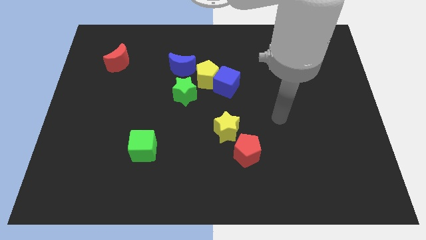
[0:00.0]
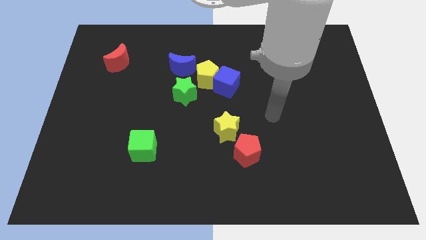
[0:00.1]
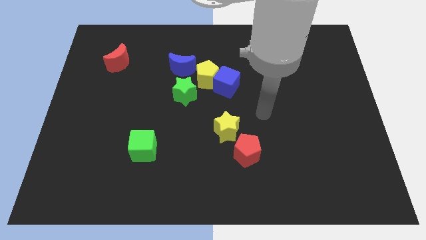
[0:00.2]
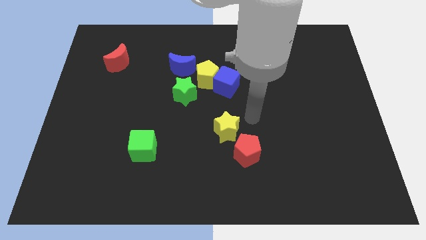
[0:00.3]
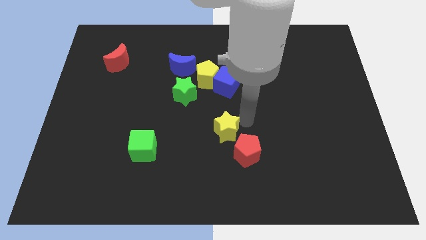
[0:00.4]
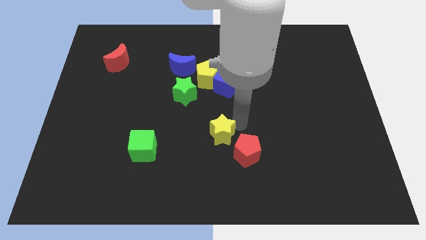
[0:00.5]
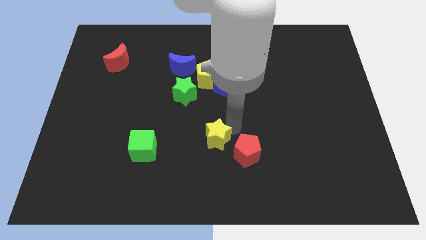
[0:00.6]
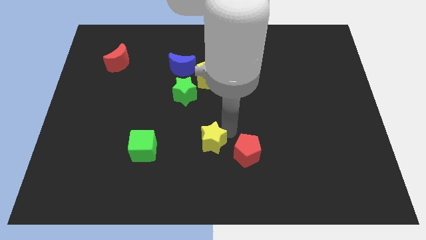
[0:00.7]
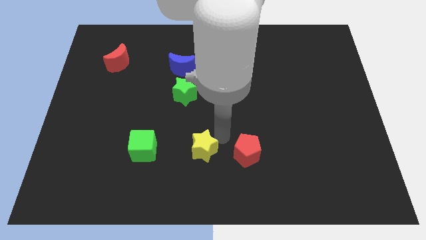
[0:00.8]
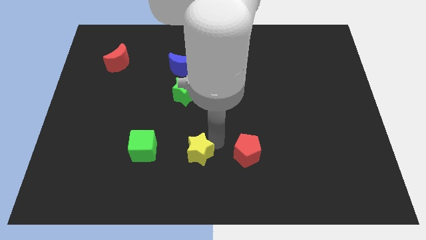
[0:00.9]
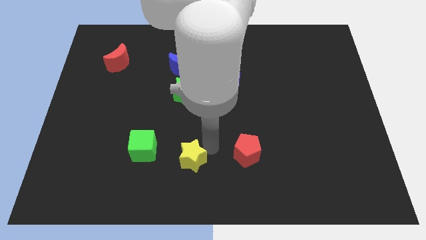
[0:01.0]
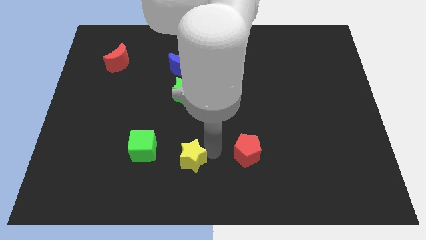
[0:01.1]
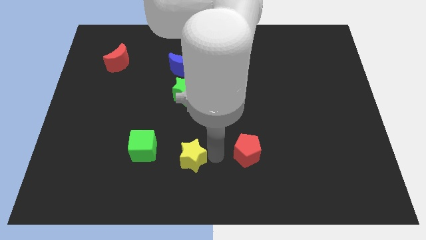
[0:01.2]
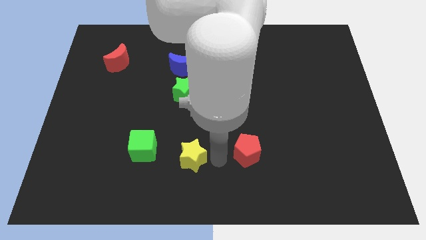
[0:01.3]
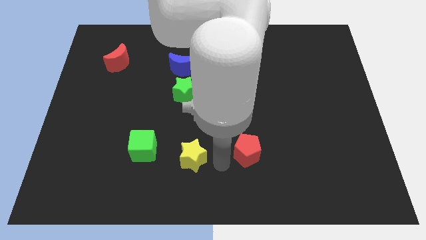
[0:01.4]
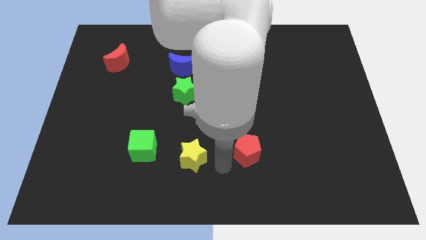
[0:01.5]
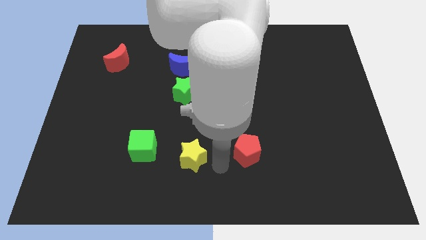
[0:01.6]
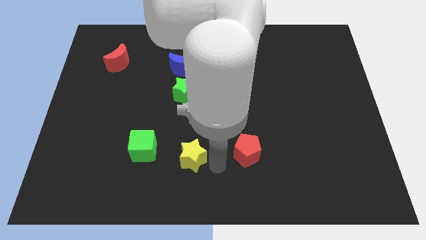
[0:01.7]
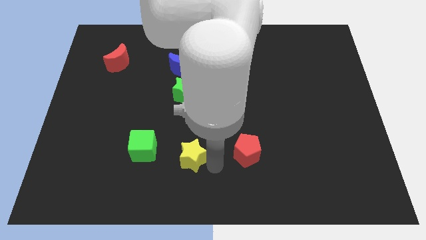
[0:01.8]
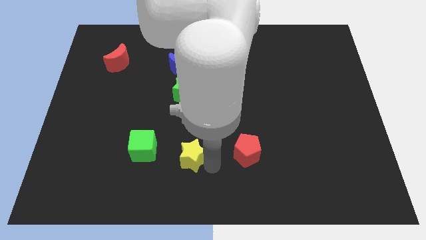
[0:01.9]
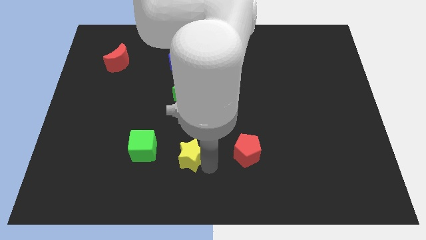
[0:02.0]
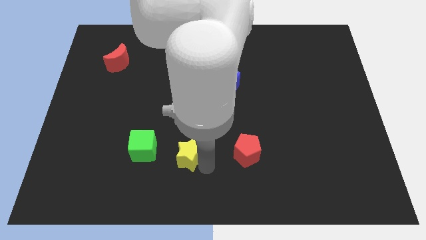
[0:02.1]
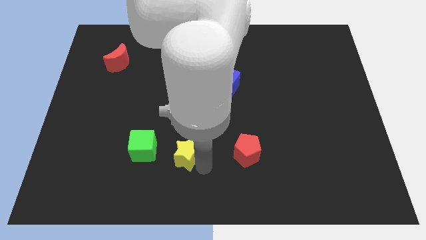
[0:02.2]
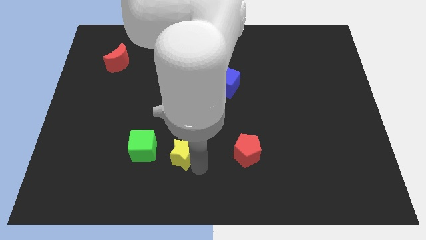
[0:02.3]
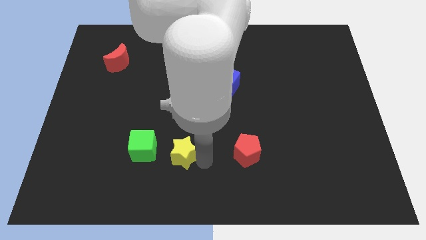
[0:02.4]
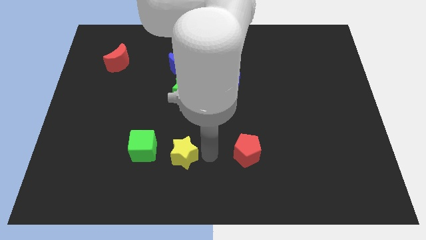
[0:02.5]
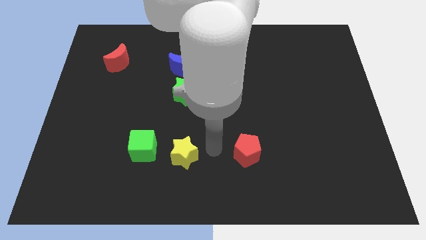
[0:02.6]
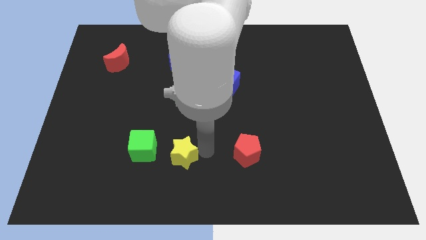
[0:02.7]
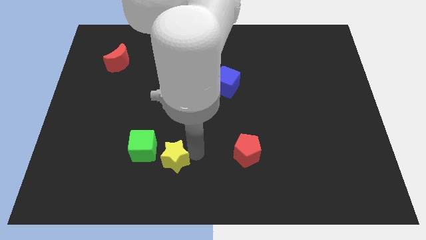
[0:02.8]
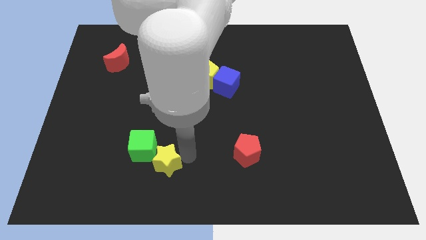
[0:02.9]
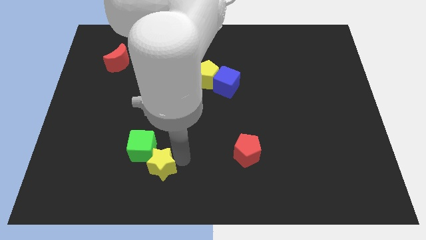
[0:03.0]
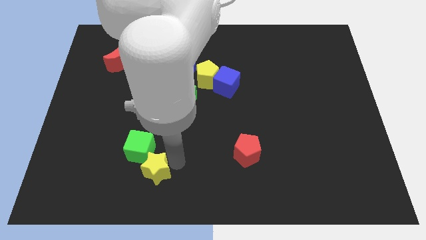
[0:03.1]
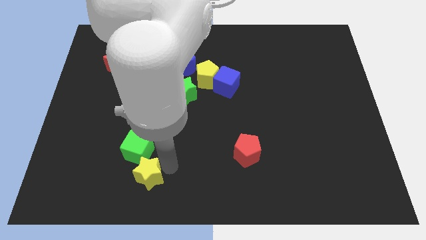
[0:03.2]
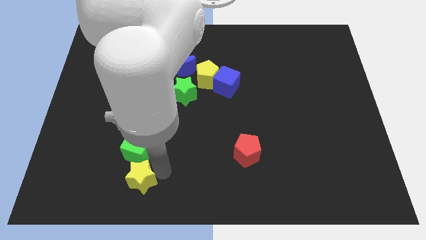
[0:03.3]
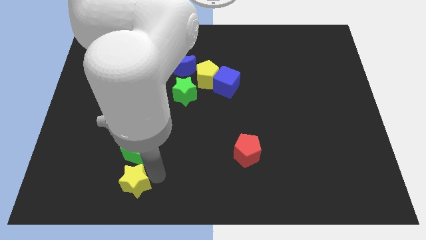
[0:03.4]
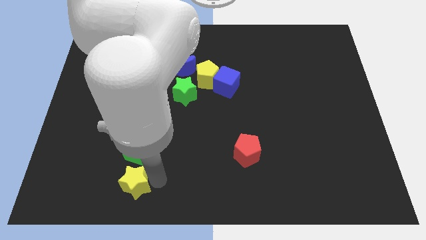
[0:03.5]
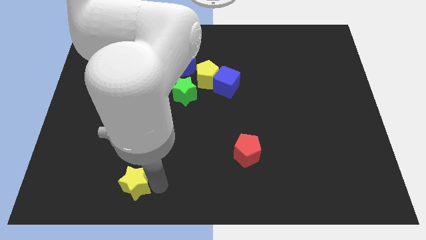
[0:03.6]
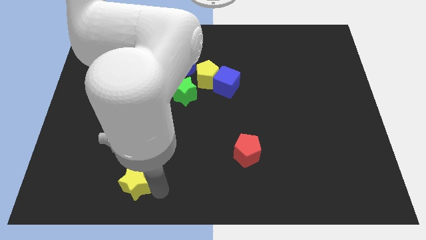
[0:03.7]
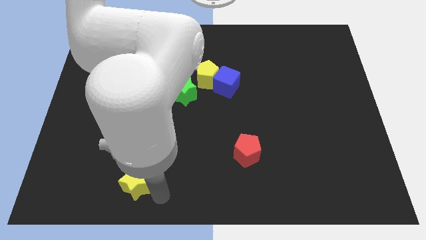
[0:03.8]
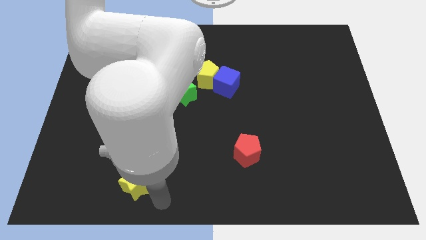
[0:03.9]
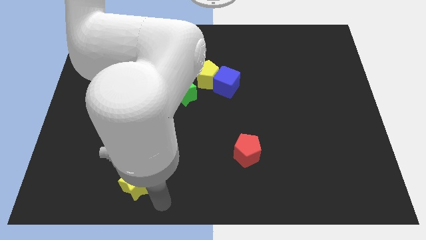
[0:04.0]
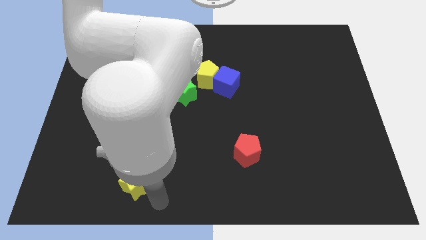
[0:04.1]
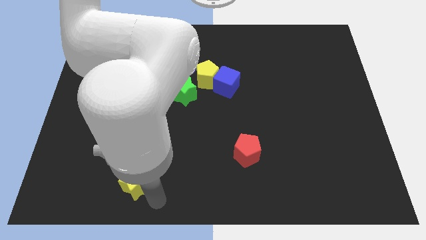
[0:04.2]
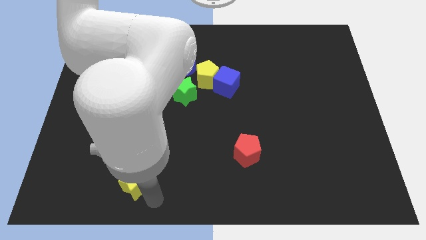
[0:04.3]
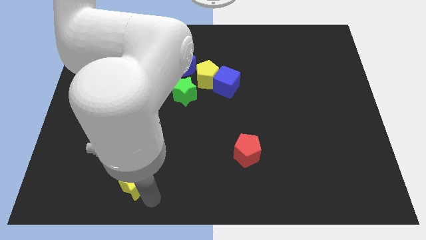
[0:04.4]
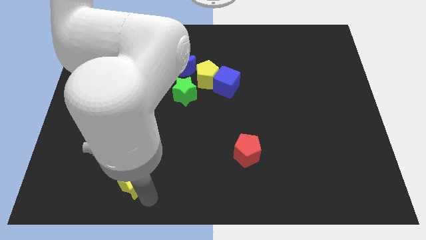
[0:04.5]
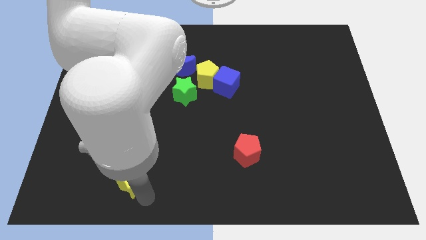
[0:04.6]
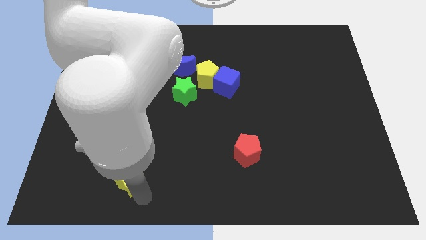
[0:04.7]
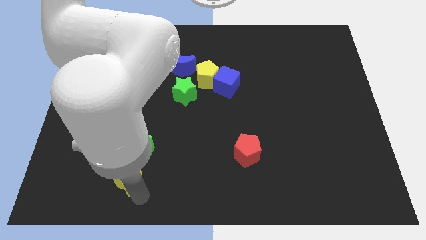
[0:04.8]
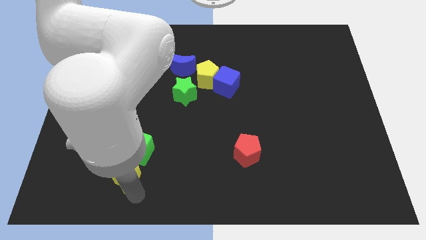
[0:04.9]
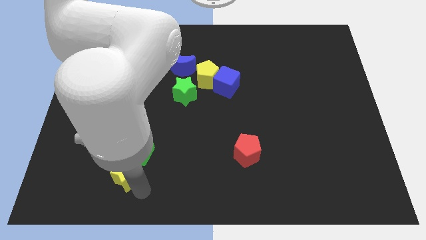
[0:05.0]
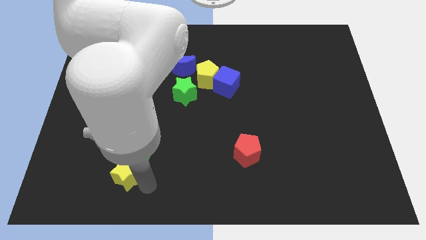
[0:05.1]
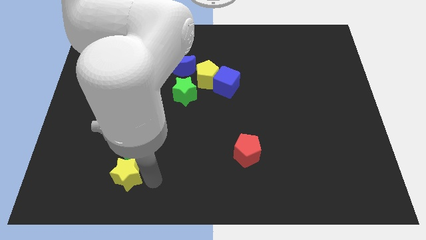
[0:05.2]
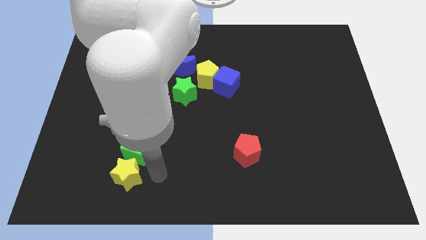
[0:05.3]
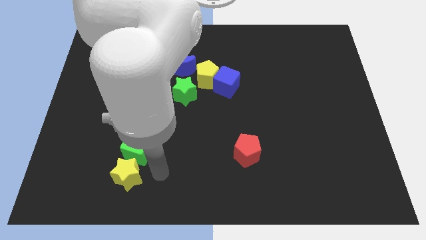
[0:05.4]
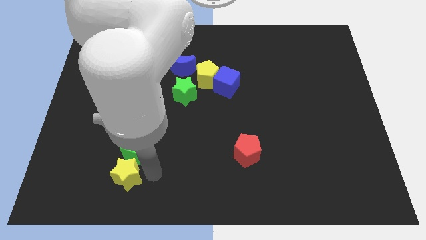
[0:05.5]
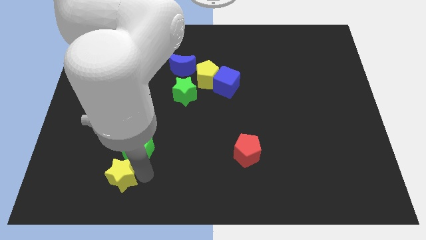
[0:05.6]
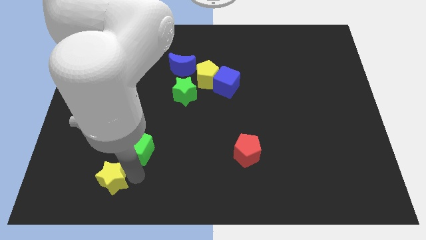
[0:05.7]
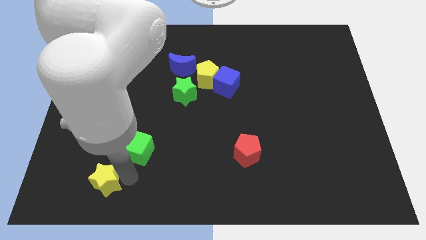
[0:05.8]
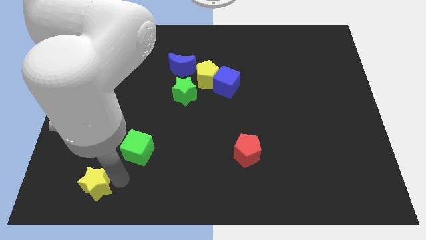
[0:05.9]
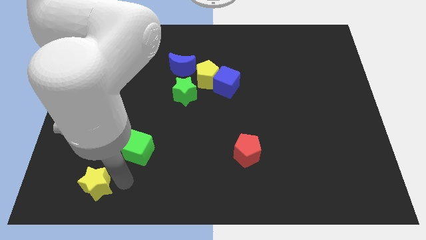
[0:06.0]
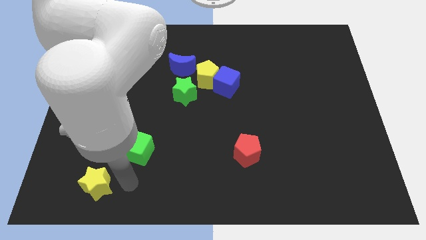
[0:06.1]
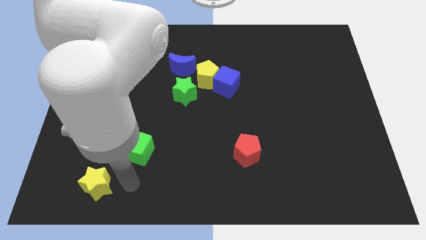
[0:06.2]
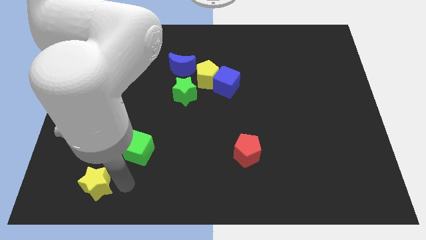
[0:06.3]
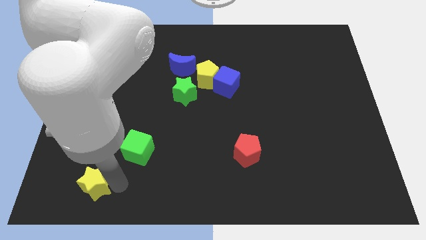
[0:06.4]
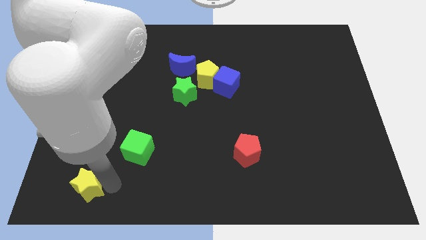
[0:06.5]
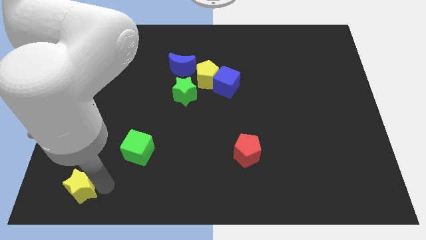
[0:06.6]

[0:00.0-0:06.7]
put the yellow star to the bottom left corner

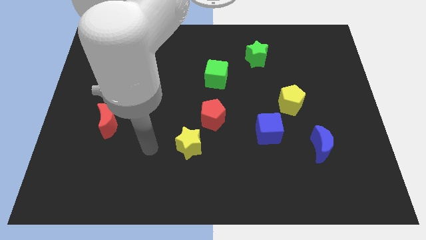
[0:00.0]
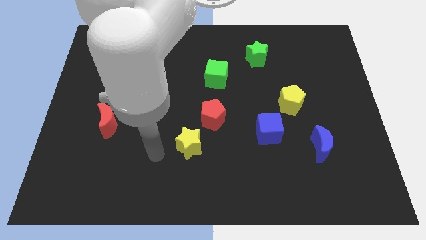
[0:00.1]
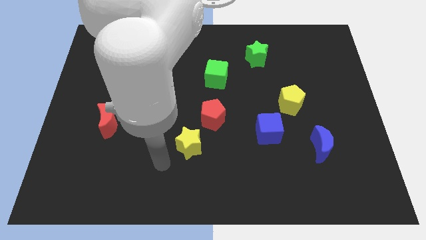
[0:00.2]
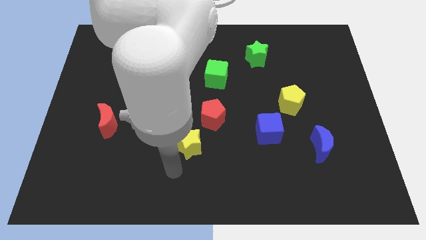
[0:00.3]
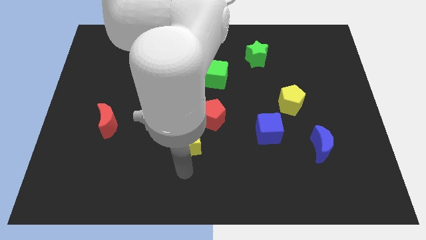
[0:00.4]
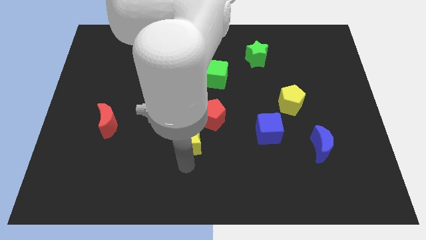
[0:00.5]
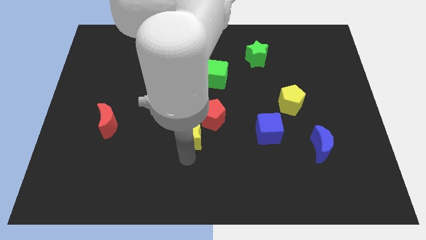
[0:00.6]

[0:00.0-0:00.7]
move the yellow star to the middle
